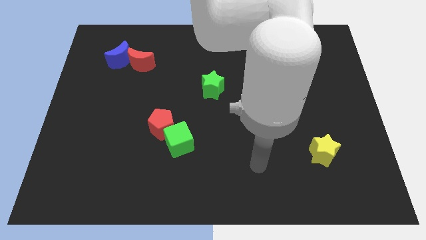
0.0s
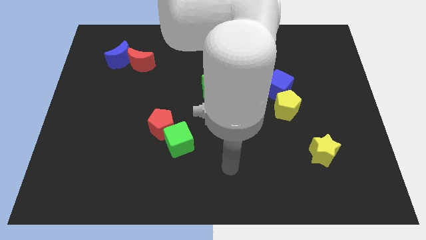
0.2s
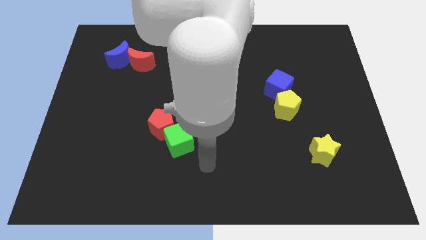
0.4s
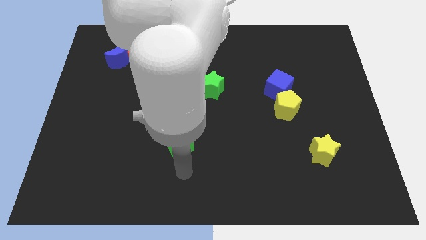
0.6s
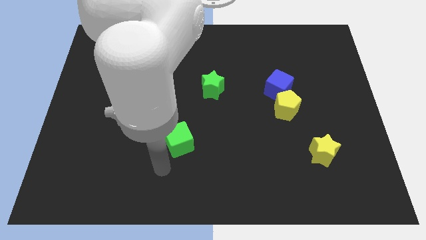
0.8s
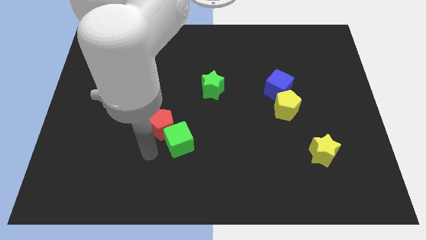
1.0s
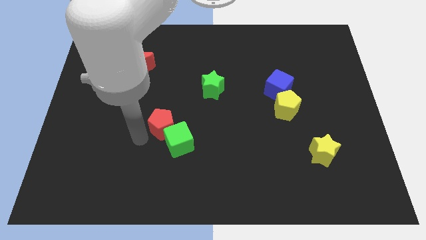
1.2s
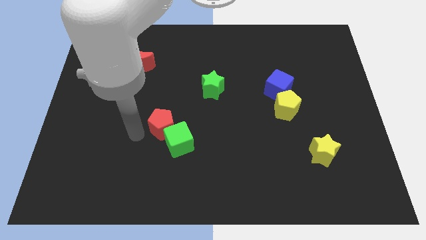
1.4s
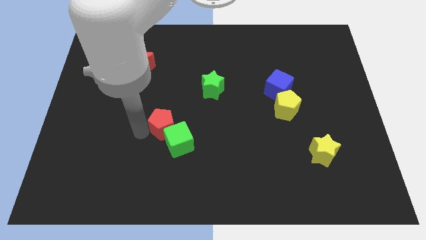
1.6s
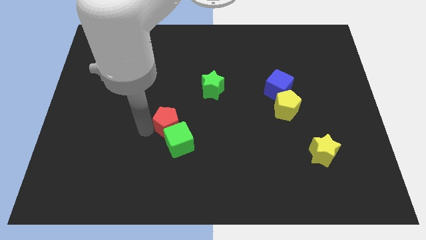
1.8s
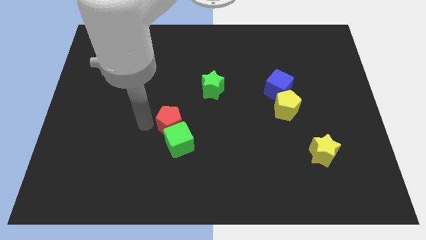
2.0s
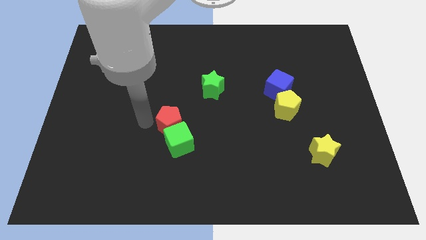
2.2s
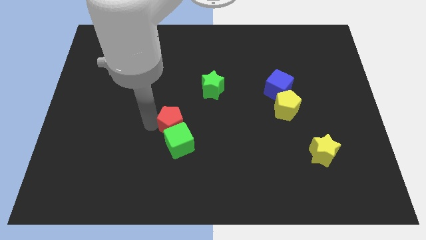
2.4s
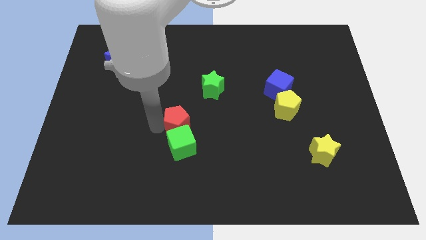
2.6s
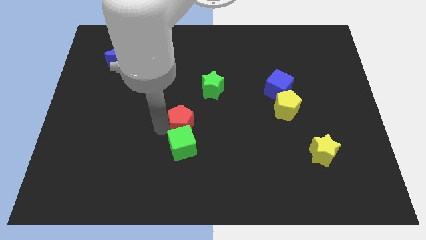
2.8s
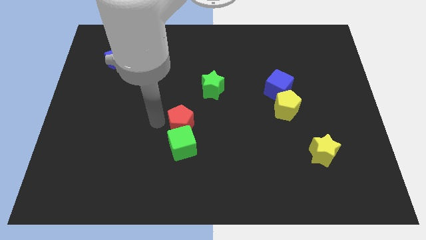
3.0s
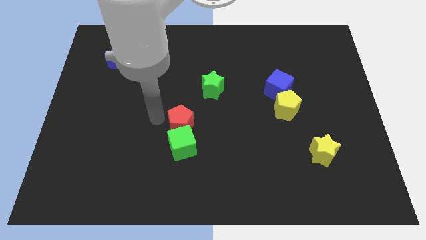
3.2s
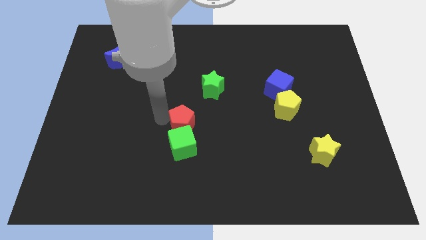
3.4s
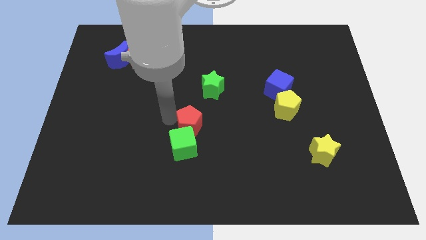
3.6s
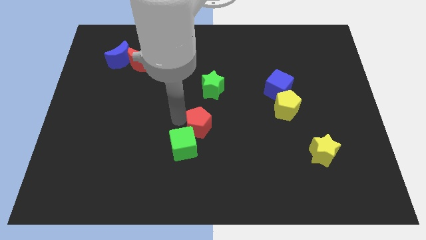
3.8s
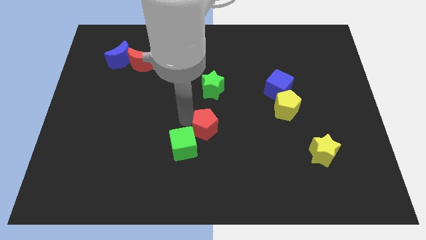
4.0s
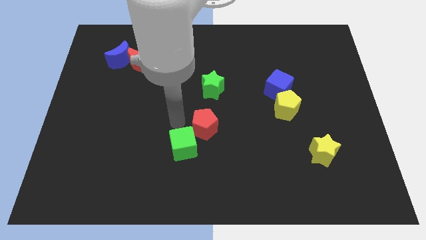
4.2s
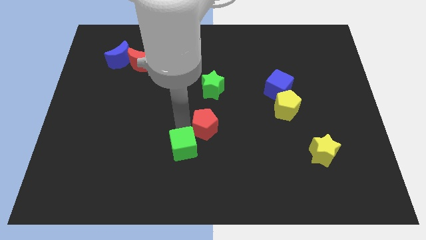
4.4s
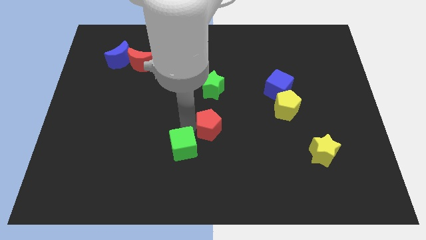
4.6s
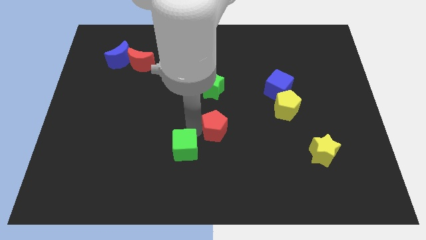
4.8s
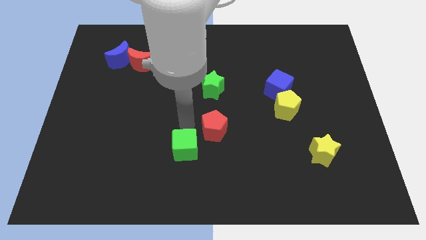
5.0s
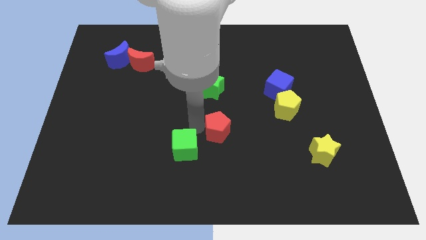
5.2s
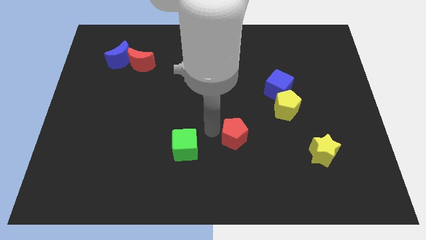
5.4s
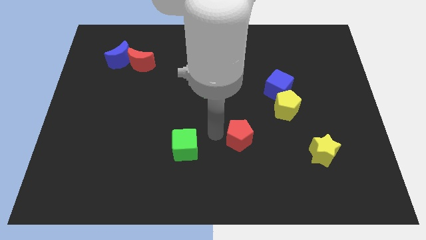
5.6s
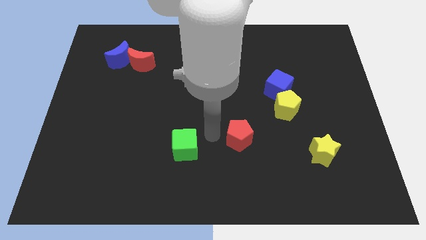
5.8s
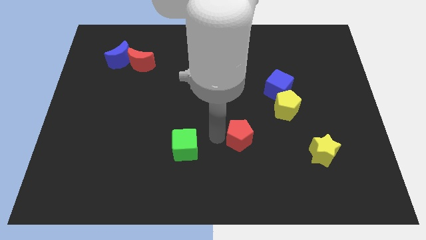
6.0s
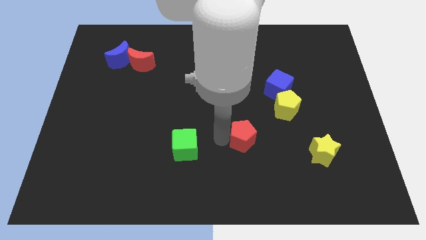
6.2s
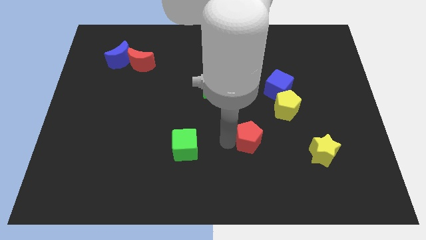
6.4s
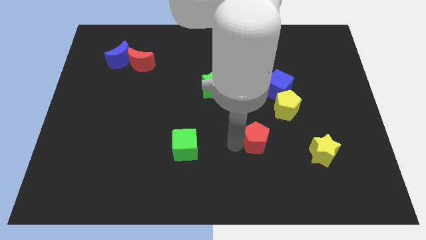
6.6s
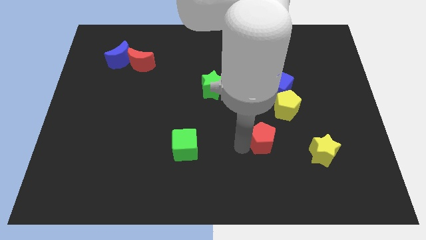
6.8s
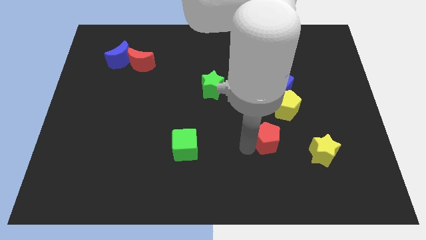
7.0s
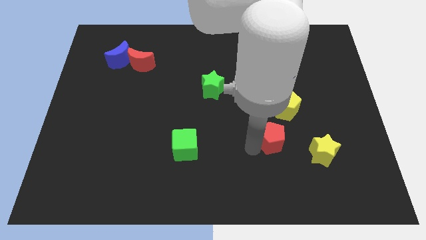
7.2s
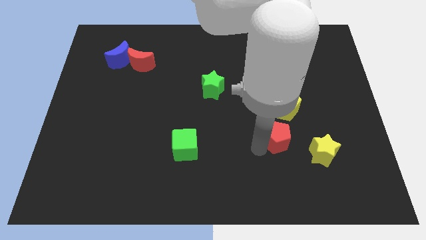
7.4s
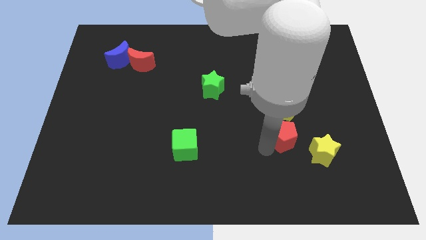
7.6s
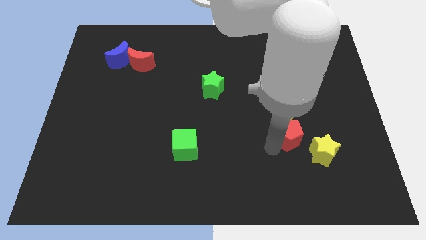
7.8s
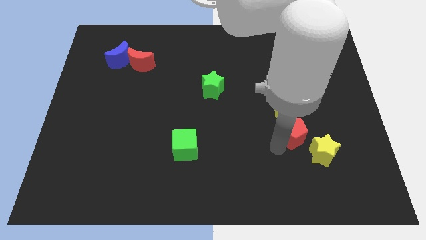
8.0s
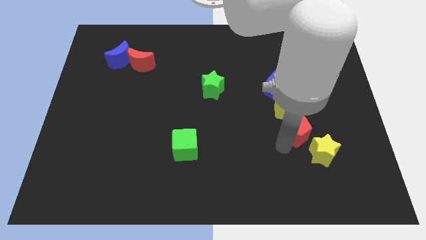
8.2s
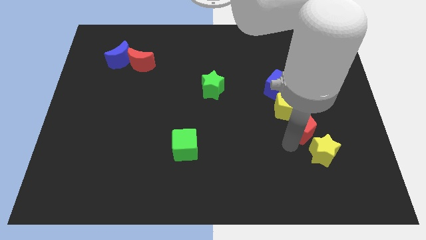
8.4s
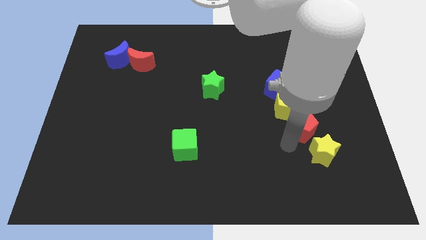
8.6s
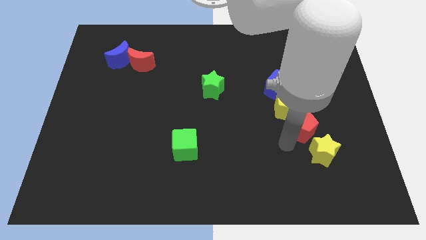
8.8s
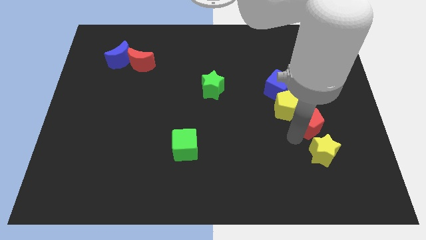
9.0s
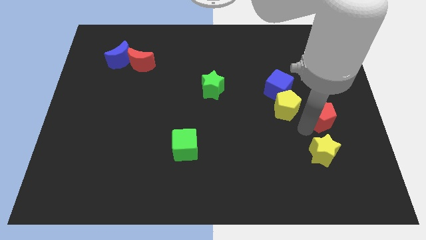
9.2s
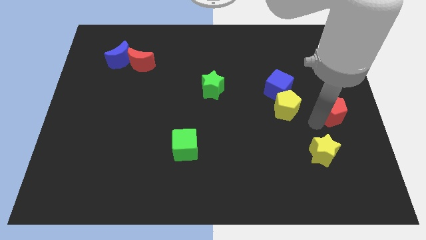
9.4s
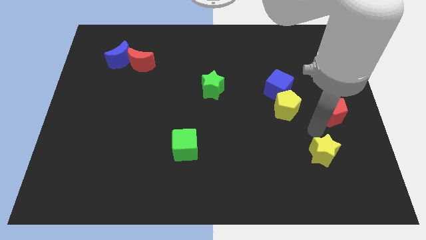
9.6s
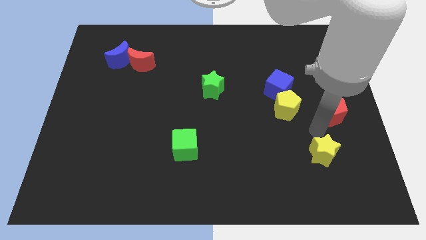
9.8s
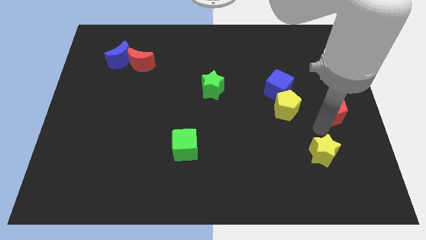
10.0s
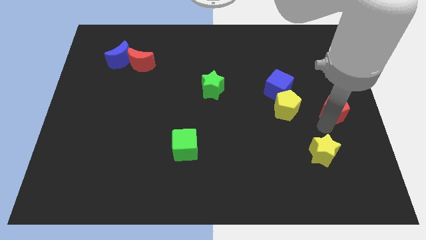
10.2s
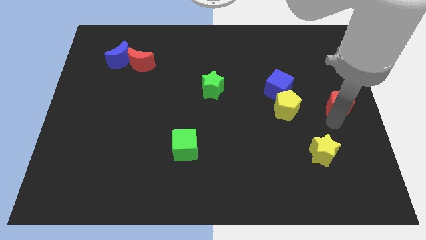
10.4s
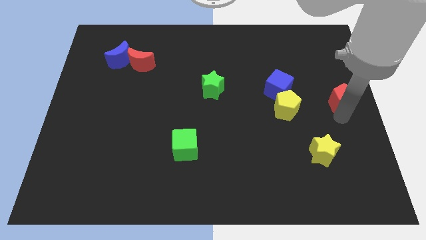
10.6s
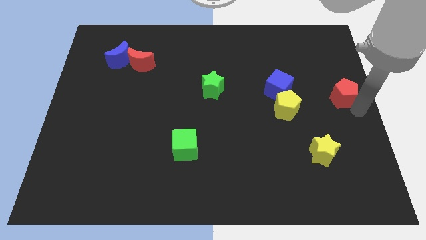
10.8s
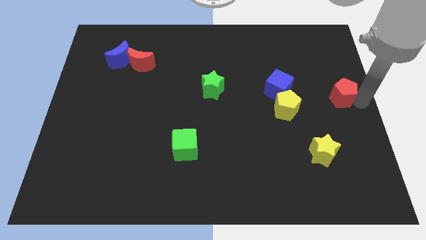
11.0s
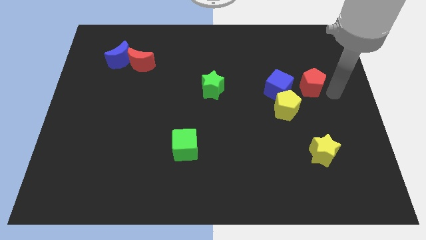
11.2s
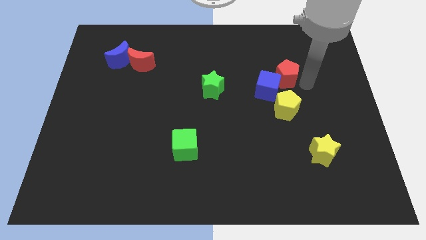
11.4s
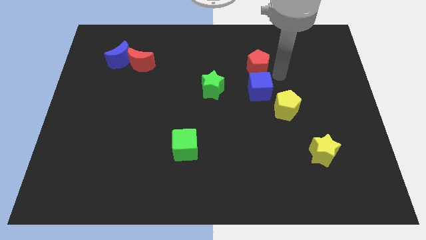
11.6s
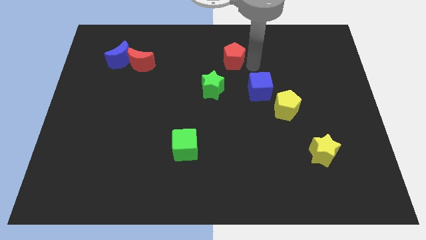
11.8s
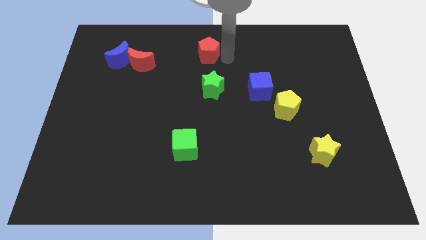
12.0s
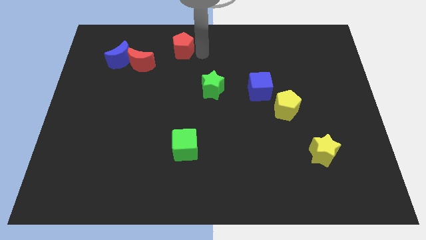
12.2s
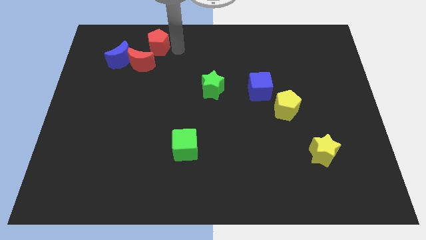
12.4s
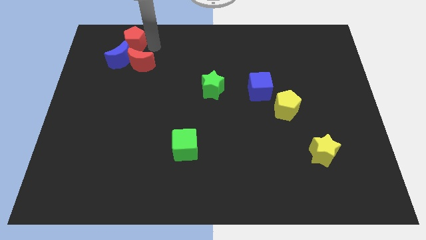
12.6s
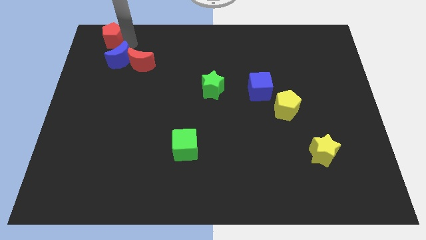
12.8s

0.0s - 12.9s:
slide the red pentagon to the top left corner
